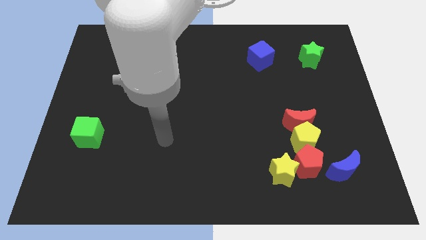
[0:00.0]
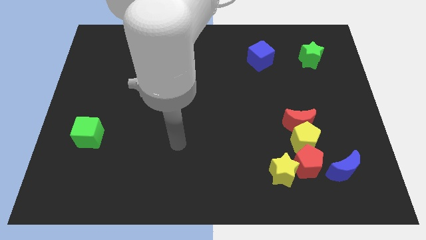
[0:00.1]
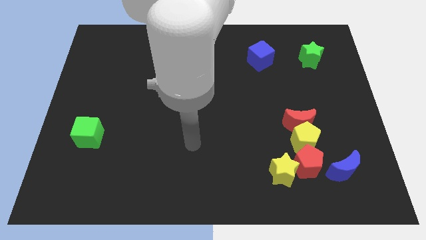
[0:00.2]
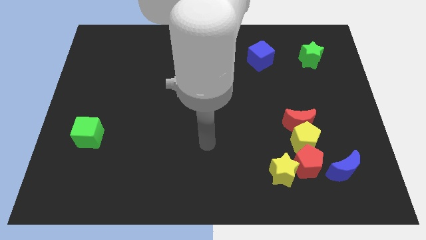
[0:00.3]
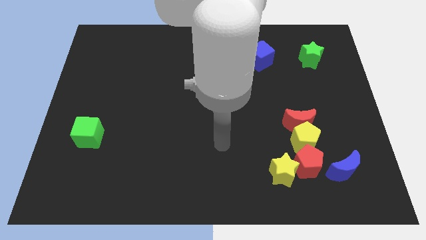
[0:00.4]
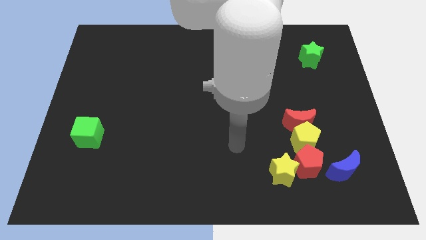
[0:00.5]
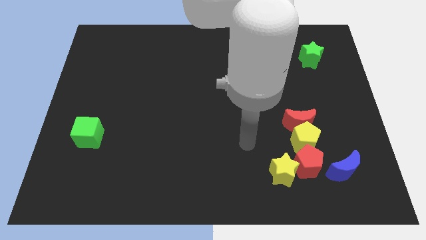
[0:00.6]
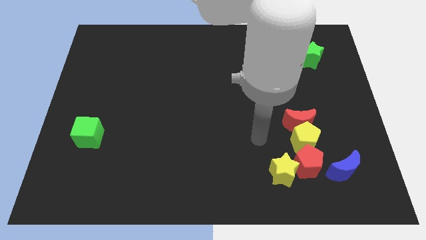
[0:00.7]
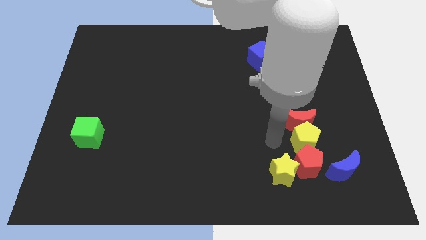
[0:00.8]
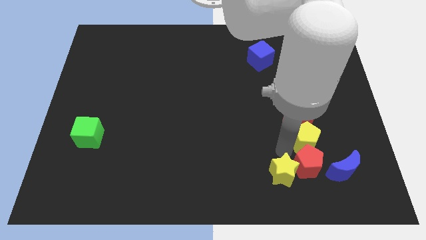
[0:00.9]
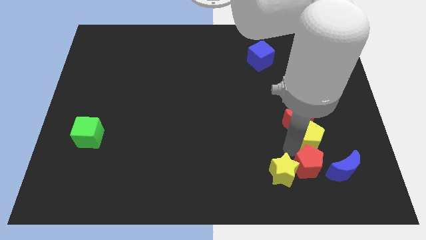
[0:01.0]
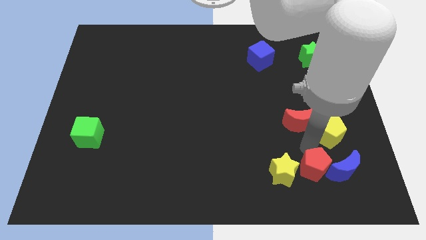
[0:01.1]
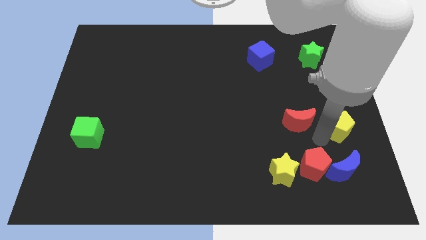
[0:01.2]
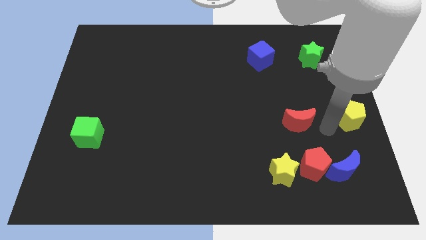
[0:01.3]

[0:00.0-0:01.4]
move the red moon away from the yellow pentagon

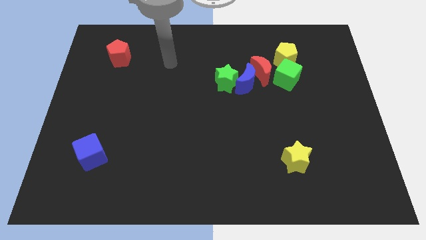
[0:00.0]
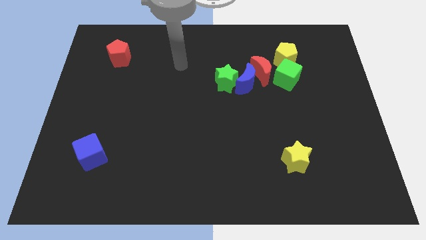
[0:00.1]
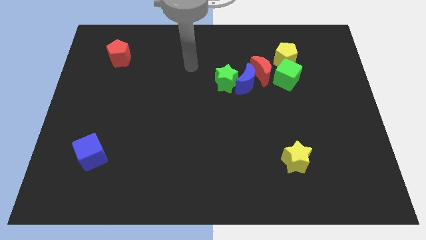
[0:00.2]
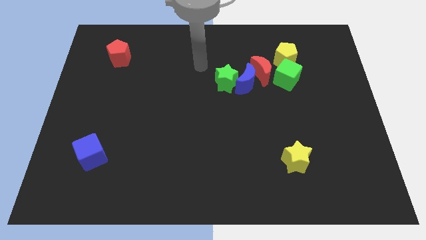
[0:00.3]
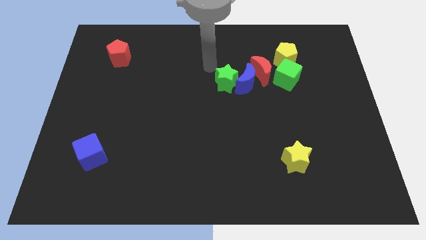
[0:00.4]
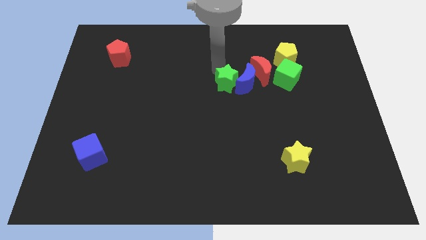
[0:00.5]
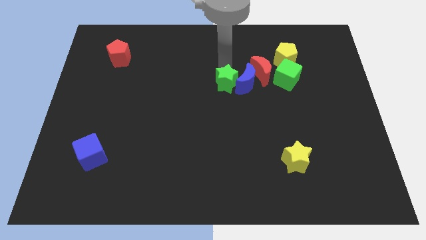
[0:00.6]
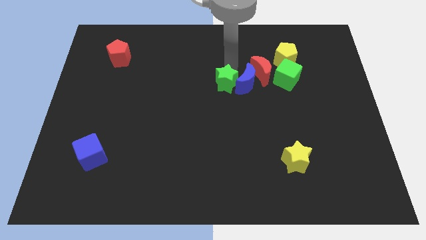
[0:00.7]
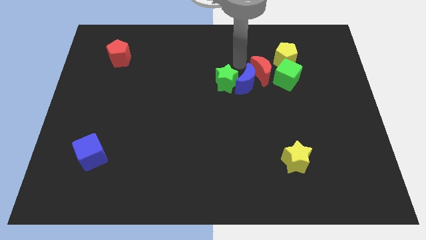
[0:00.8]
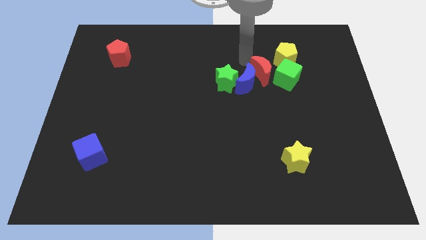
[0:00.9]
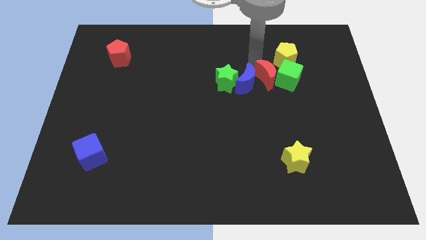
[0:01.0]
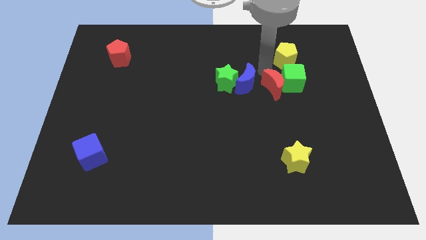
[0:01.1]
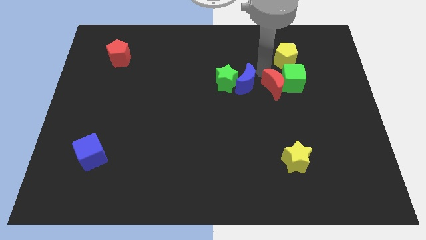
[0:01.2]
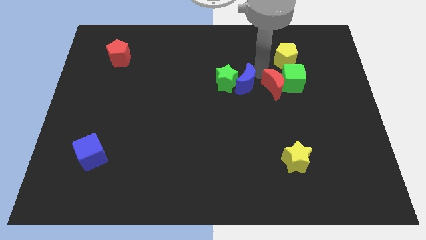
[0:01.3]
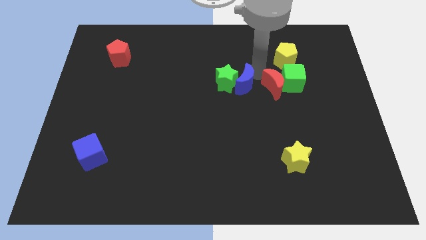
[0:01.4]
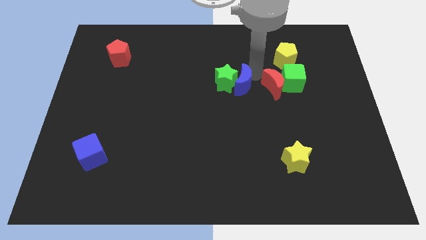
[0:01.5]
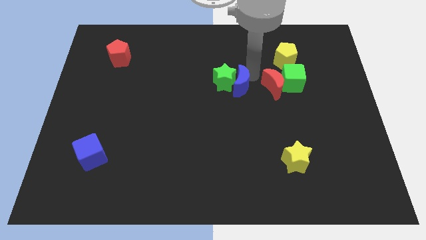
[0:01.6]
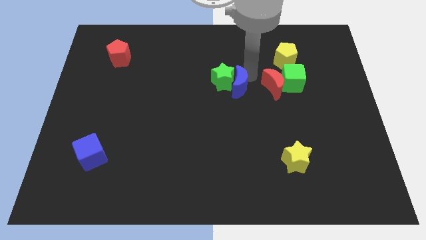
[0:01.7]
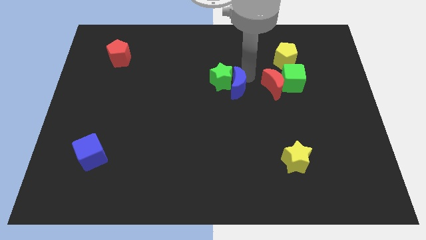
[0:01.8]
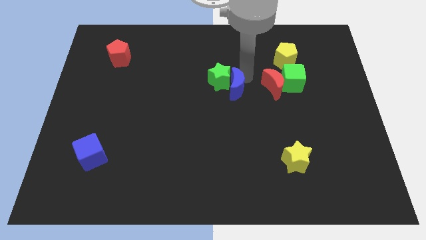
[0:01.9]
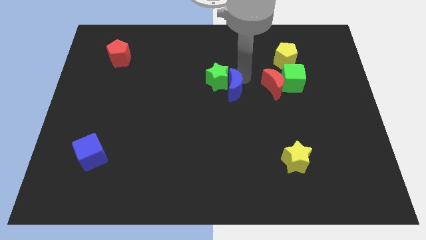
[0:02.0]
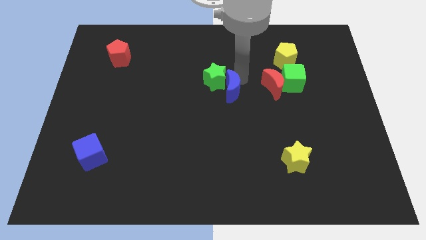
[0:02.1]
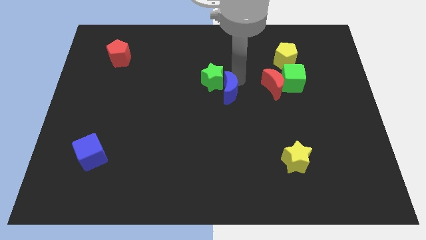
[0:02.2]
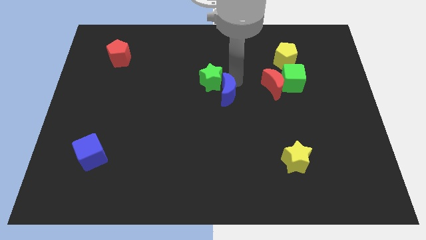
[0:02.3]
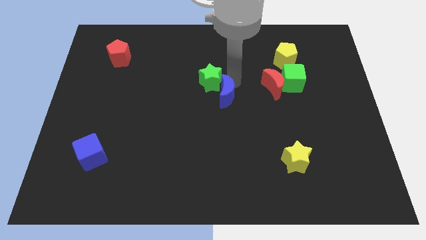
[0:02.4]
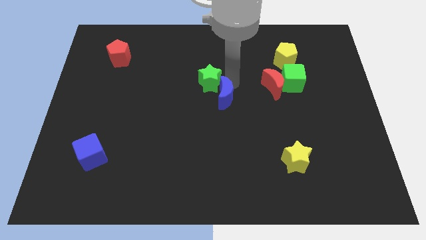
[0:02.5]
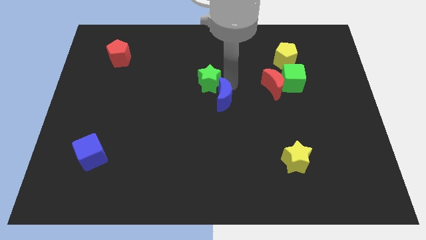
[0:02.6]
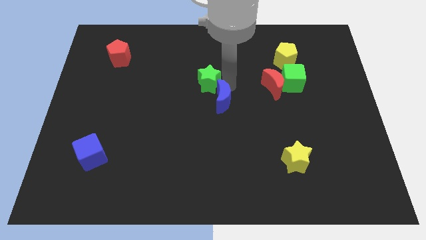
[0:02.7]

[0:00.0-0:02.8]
separate the blue moon from the group of blocks

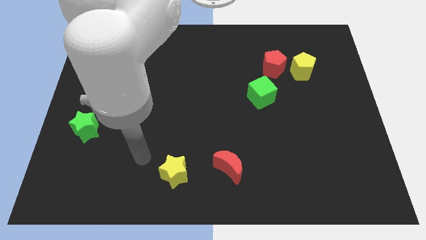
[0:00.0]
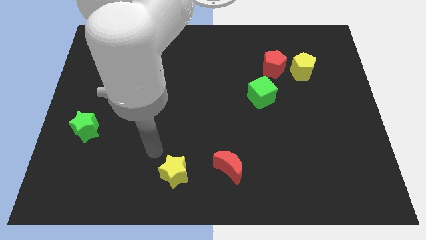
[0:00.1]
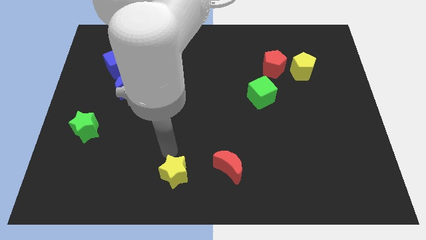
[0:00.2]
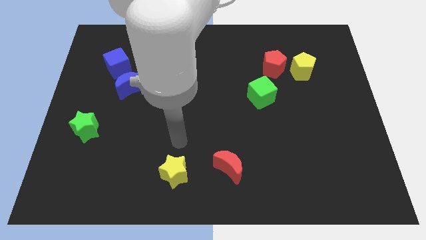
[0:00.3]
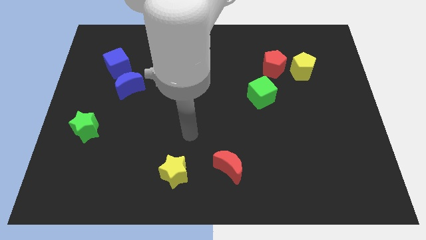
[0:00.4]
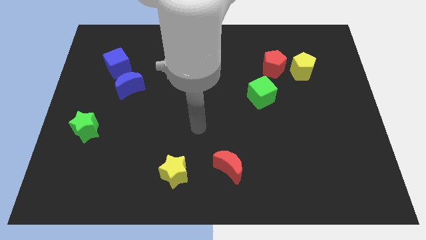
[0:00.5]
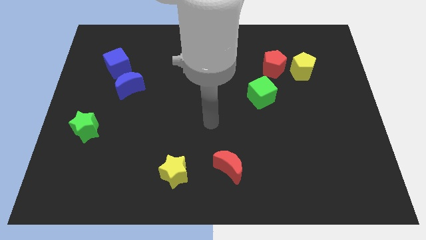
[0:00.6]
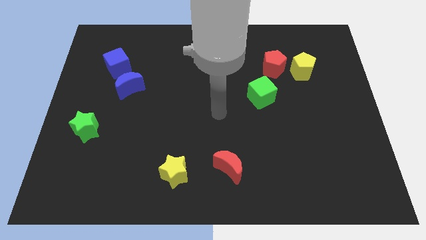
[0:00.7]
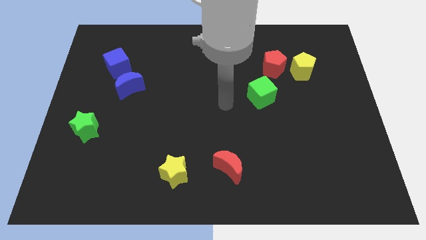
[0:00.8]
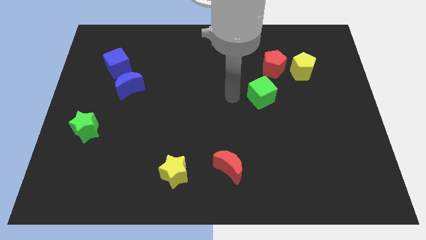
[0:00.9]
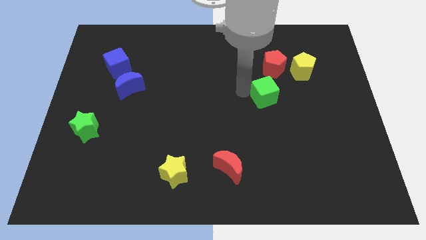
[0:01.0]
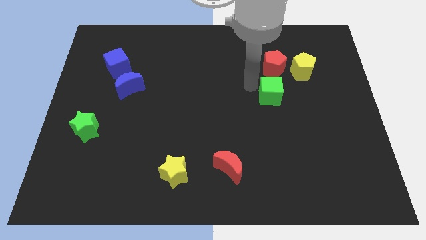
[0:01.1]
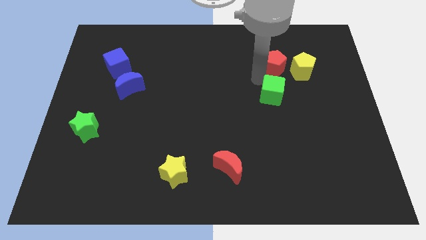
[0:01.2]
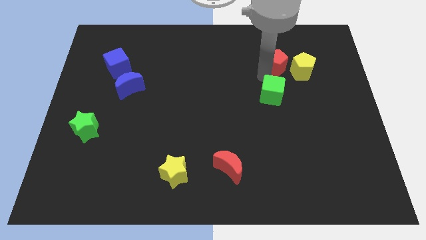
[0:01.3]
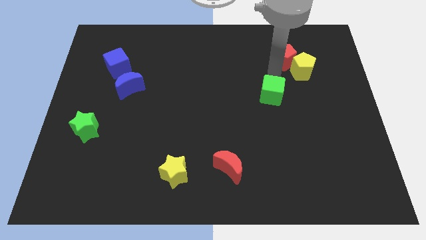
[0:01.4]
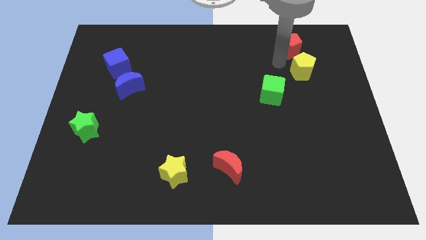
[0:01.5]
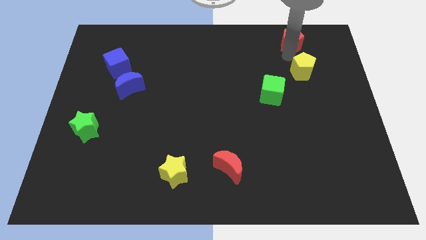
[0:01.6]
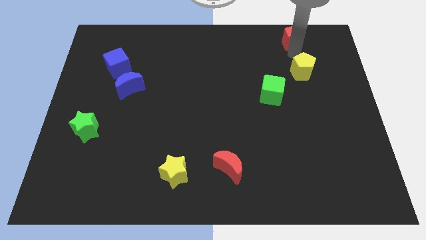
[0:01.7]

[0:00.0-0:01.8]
move the yellow pentagon away from the red pentagon

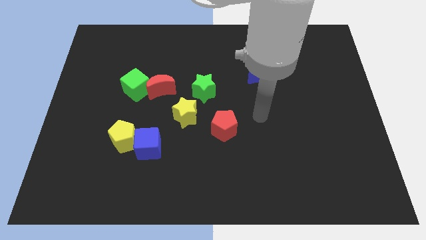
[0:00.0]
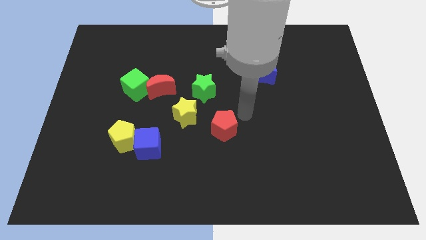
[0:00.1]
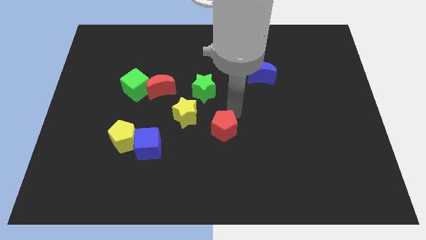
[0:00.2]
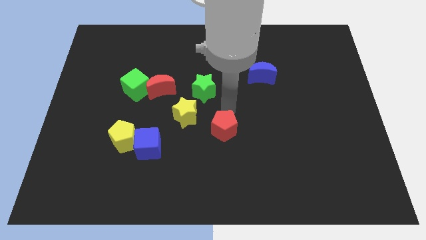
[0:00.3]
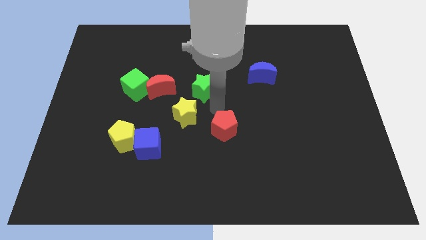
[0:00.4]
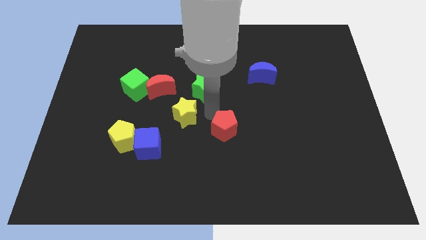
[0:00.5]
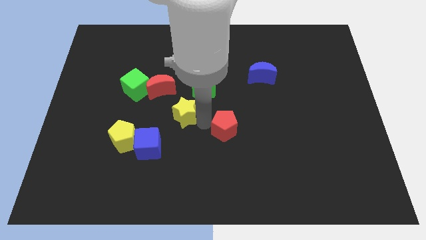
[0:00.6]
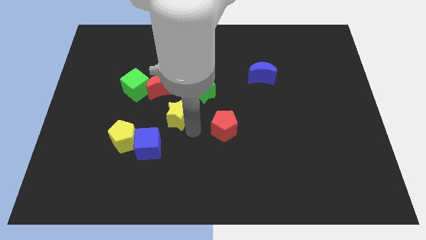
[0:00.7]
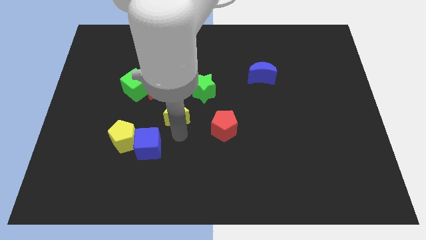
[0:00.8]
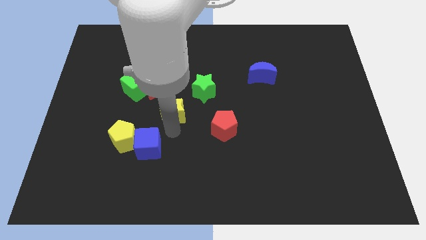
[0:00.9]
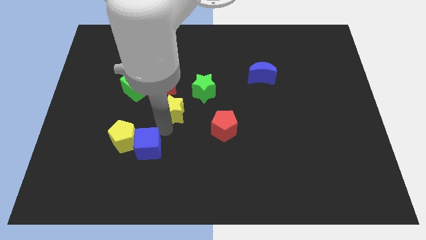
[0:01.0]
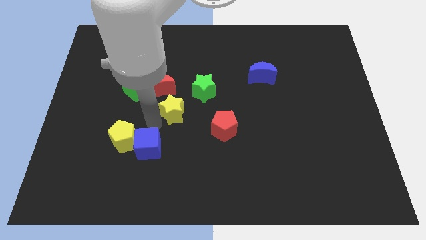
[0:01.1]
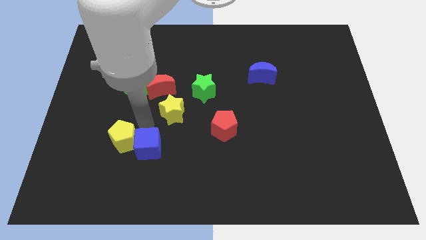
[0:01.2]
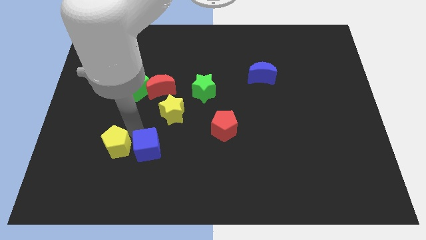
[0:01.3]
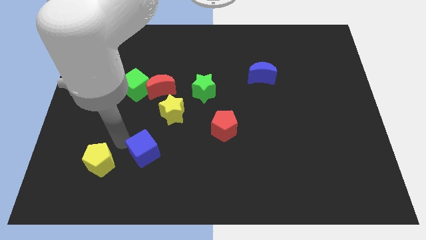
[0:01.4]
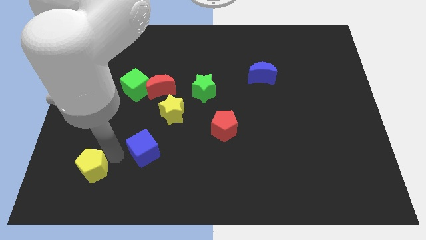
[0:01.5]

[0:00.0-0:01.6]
move the blue cube away from the yellow pentagon

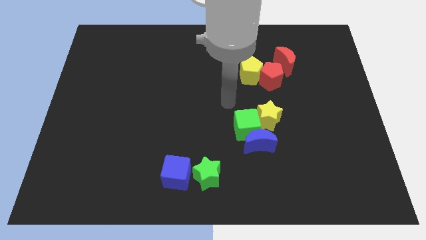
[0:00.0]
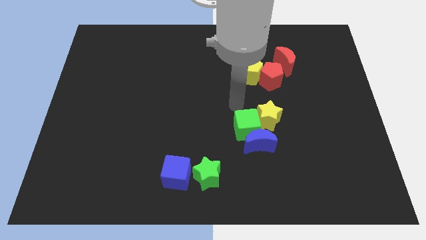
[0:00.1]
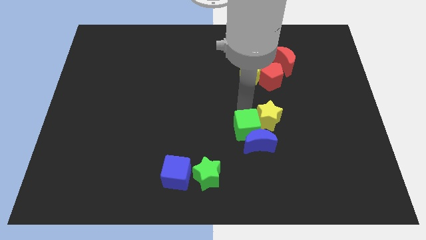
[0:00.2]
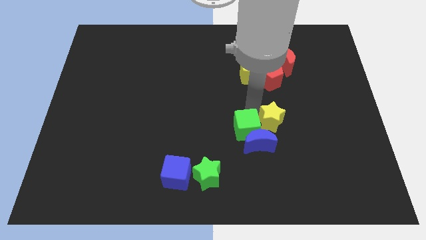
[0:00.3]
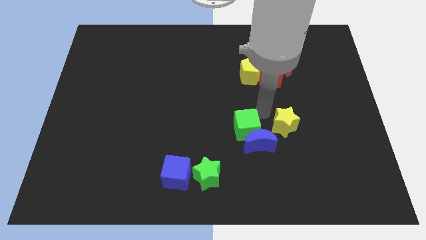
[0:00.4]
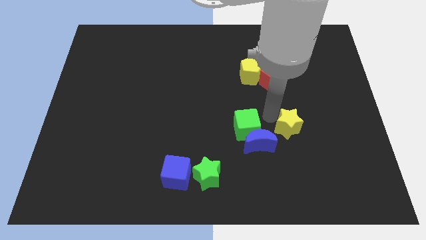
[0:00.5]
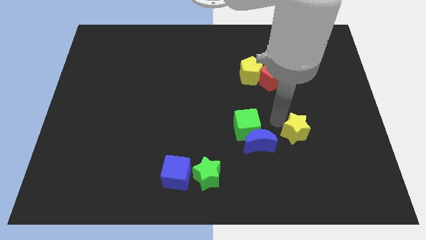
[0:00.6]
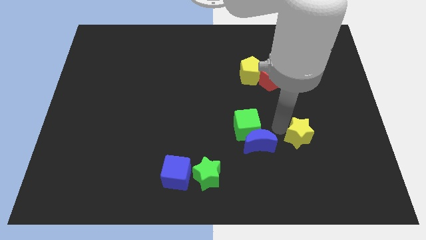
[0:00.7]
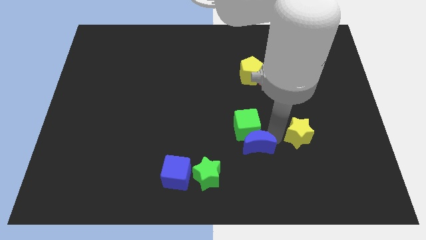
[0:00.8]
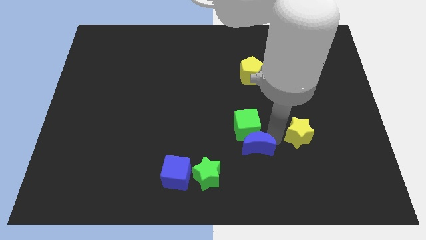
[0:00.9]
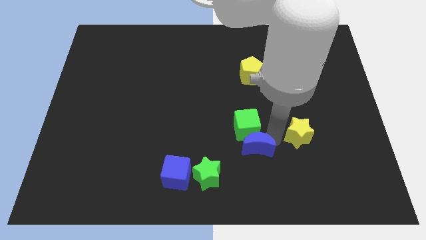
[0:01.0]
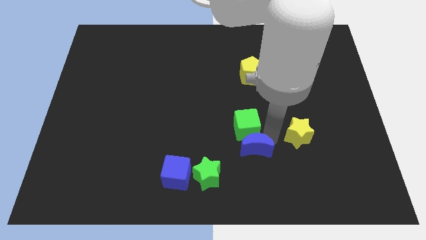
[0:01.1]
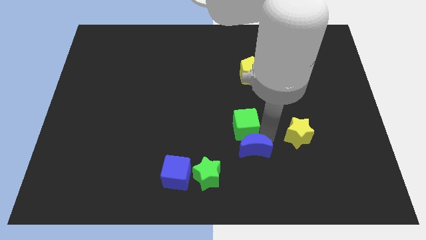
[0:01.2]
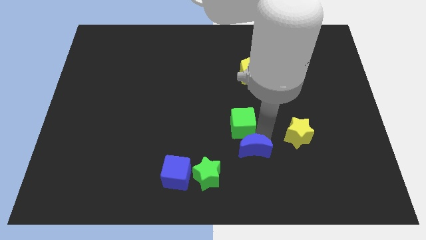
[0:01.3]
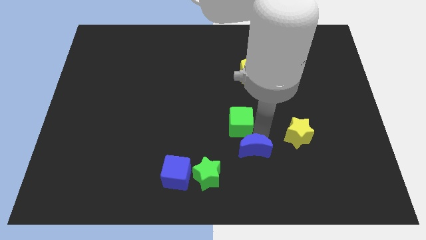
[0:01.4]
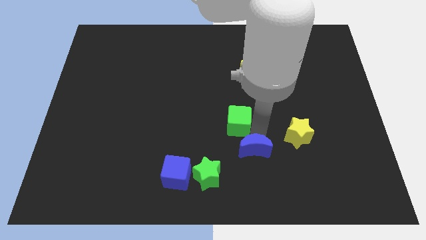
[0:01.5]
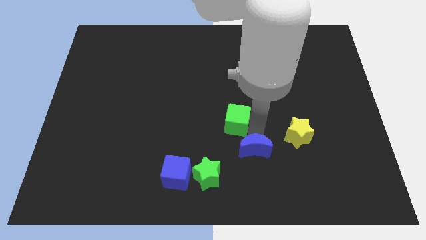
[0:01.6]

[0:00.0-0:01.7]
pull the green cube apart from the blue moon and yellow star
